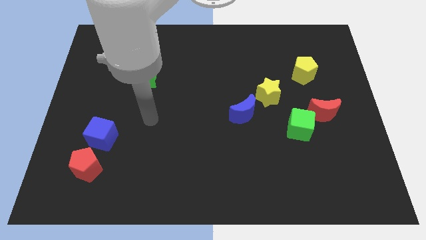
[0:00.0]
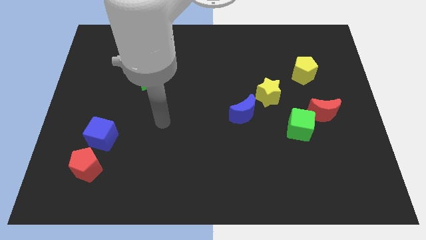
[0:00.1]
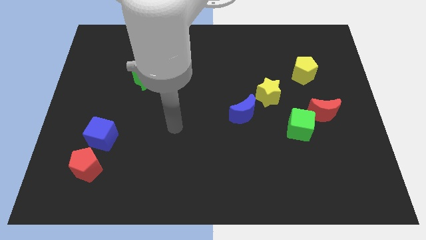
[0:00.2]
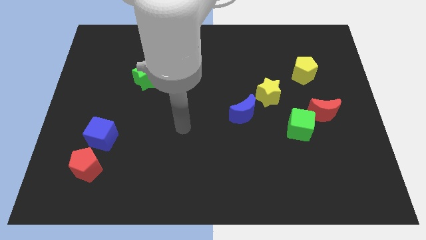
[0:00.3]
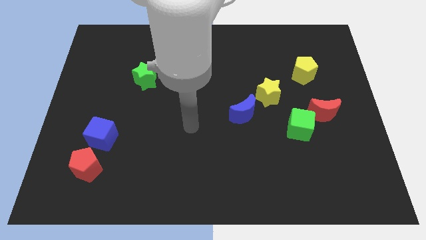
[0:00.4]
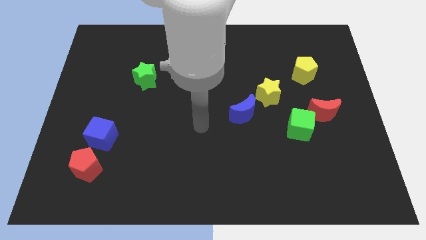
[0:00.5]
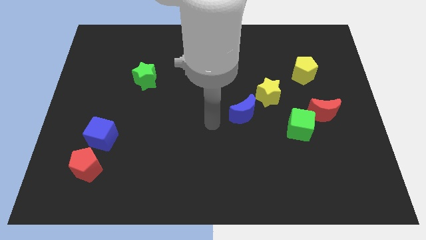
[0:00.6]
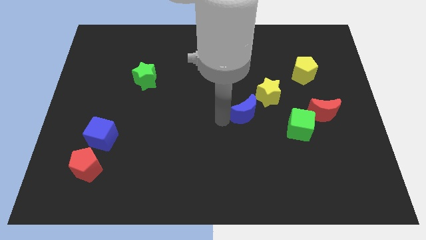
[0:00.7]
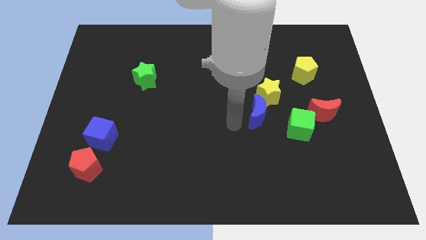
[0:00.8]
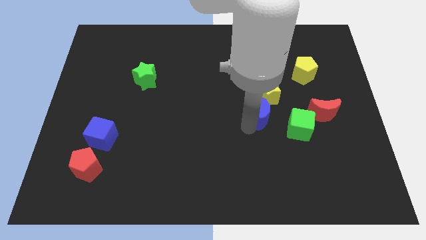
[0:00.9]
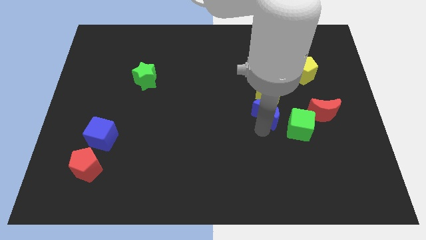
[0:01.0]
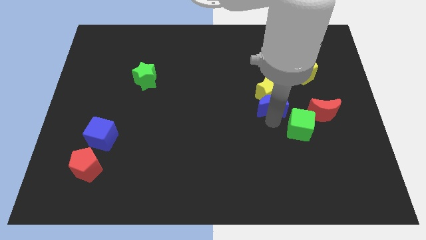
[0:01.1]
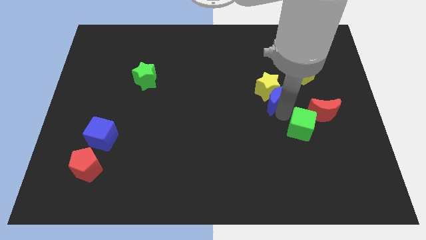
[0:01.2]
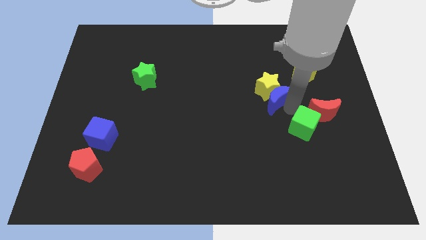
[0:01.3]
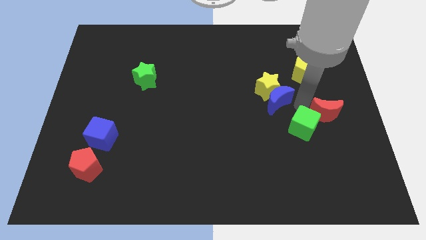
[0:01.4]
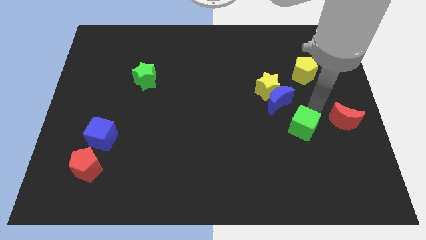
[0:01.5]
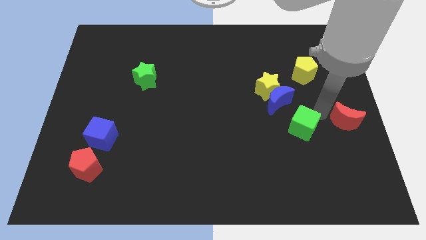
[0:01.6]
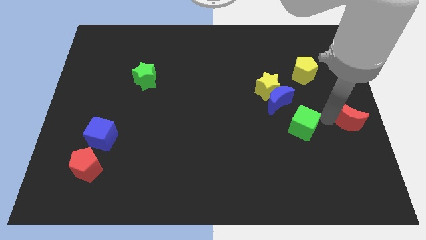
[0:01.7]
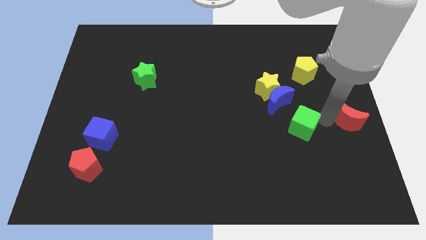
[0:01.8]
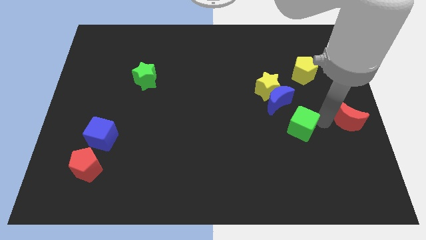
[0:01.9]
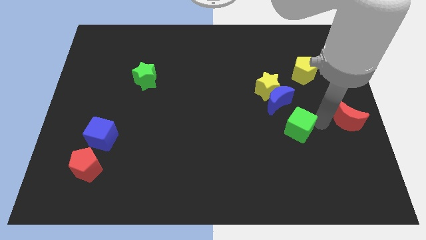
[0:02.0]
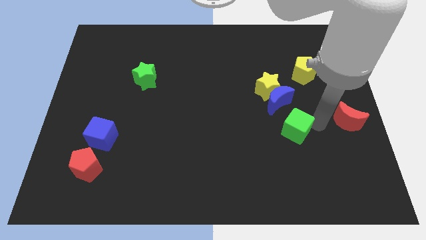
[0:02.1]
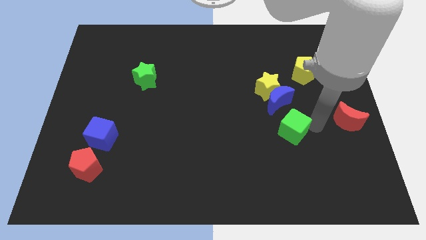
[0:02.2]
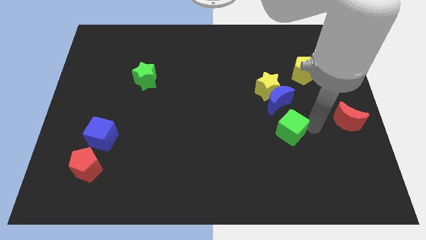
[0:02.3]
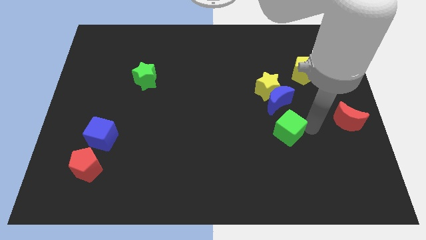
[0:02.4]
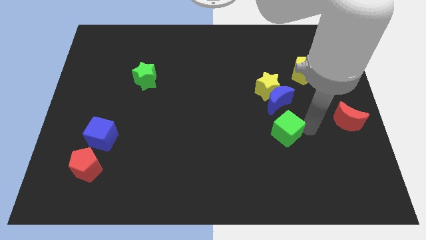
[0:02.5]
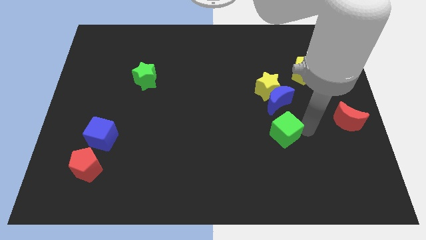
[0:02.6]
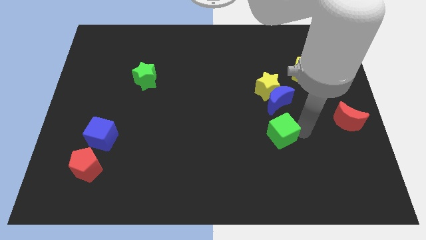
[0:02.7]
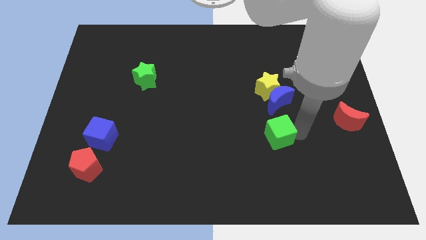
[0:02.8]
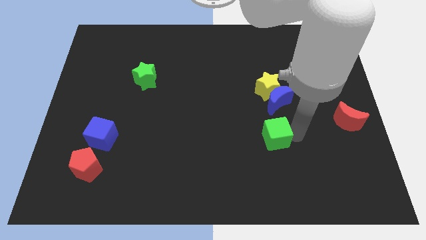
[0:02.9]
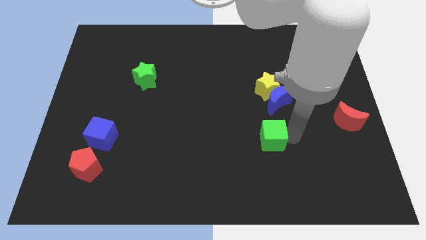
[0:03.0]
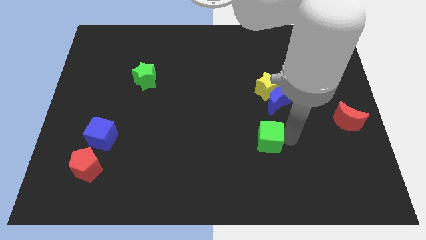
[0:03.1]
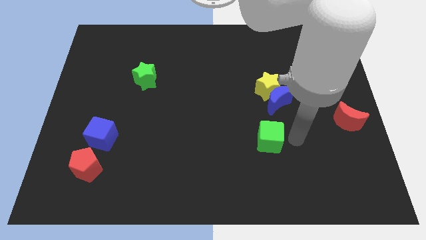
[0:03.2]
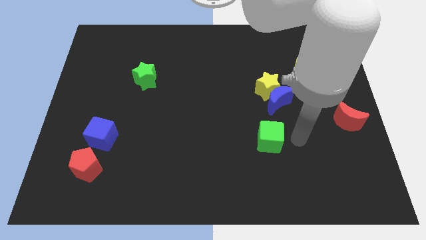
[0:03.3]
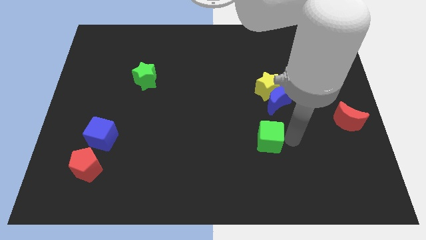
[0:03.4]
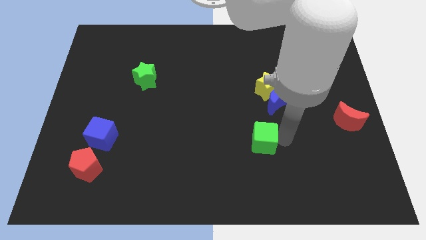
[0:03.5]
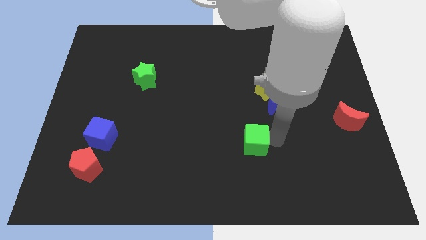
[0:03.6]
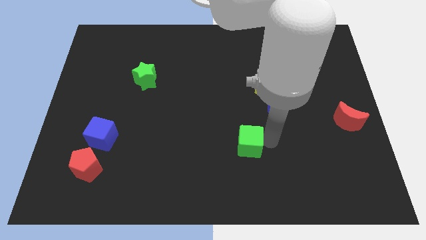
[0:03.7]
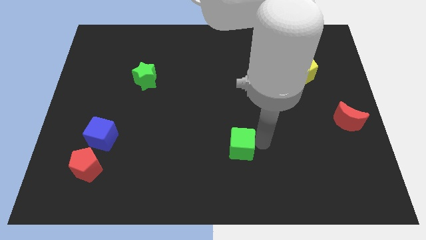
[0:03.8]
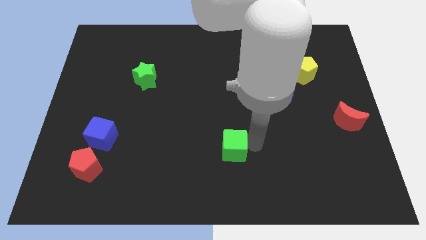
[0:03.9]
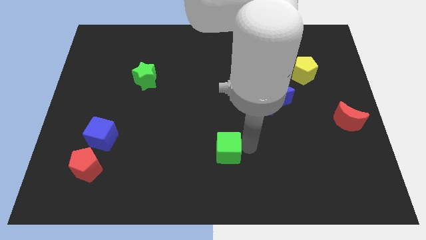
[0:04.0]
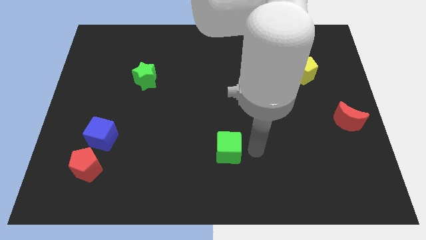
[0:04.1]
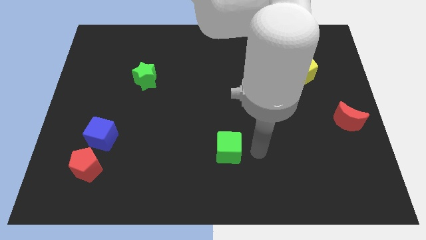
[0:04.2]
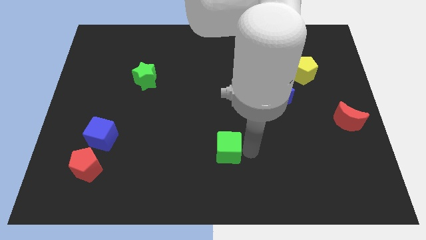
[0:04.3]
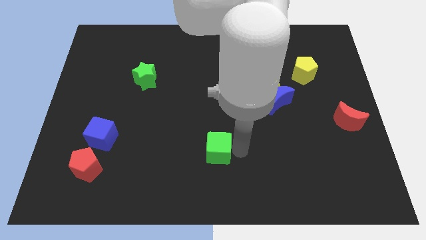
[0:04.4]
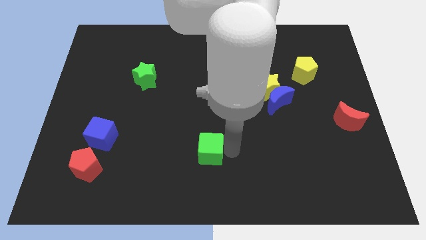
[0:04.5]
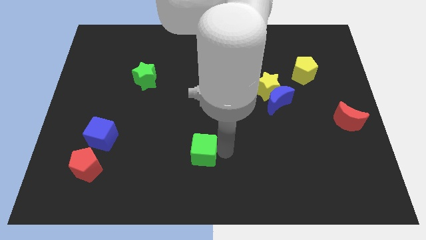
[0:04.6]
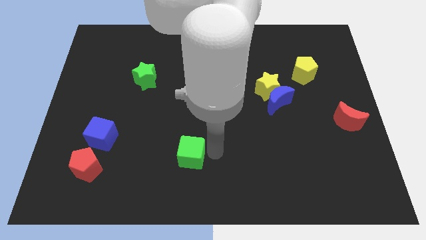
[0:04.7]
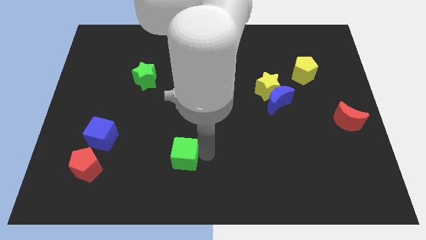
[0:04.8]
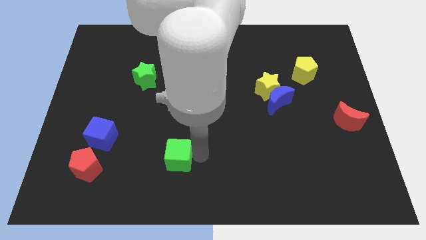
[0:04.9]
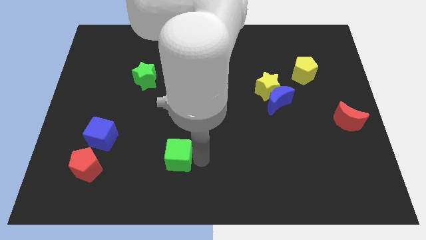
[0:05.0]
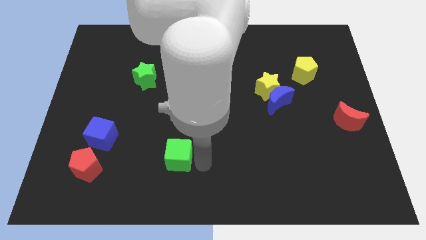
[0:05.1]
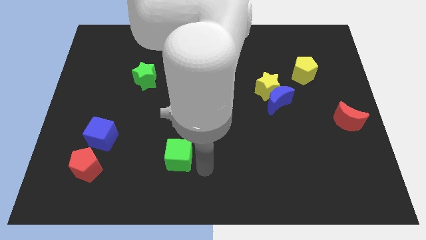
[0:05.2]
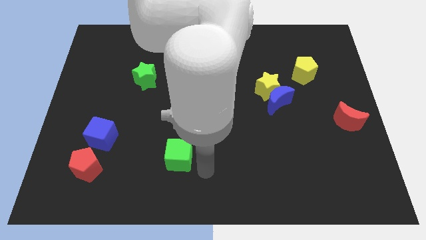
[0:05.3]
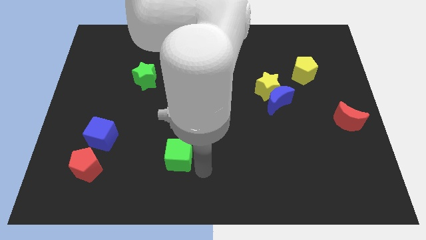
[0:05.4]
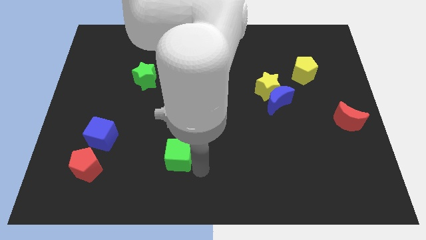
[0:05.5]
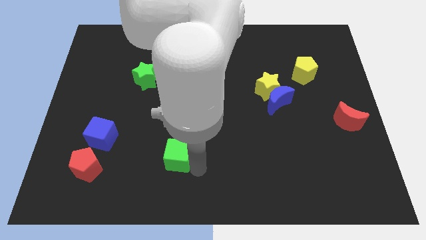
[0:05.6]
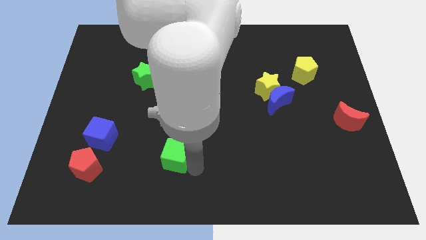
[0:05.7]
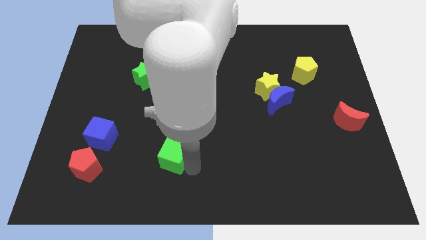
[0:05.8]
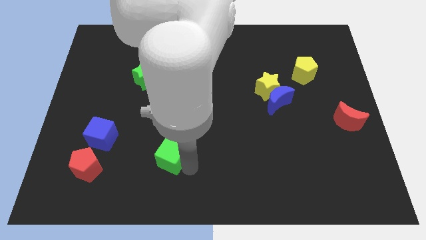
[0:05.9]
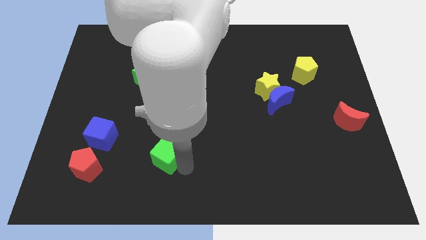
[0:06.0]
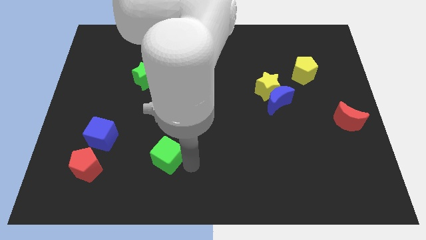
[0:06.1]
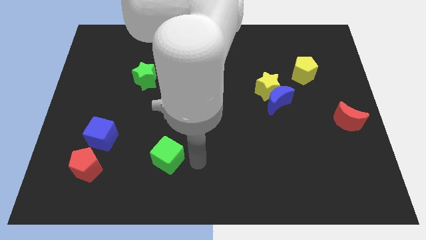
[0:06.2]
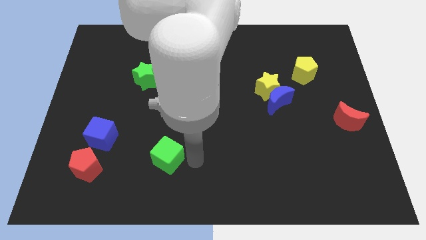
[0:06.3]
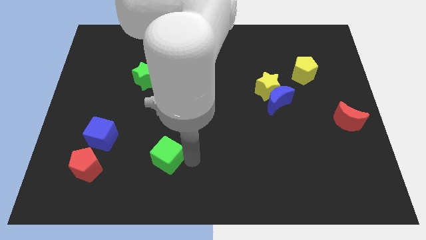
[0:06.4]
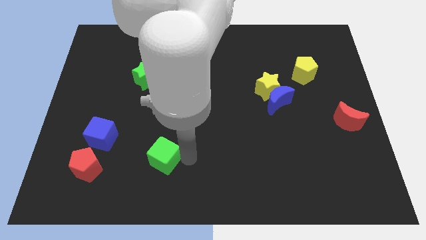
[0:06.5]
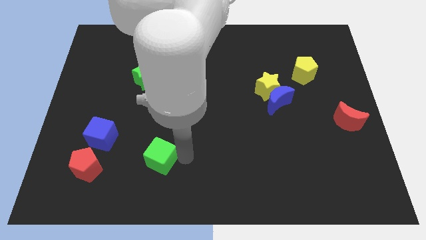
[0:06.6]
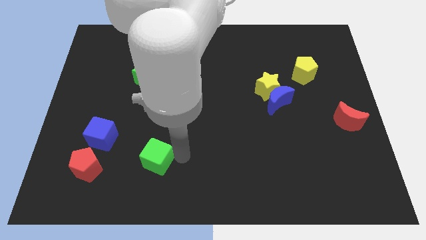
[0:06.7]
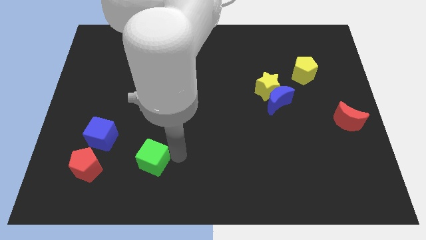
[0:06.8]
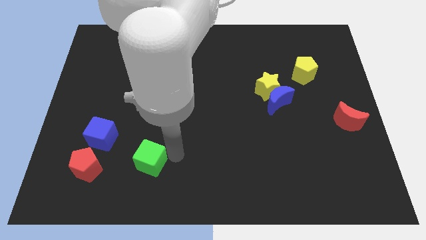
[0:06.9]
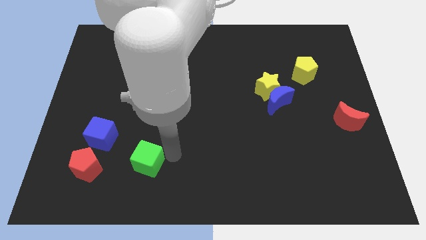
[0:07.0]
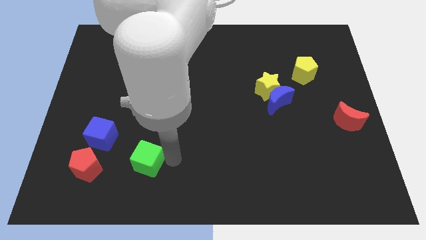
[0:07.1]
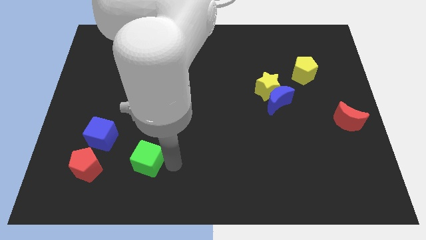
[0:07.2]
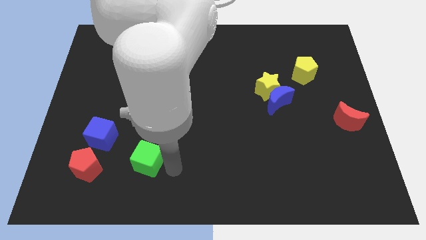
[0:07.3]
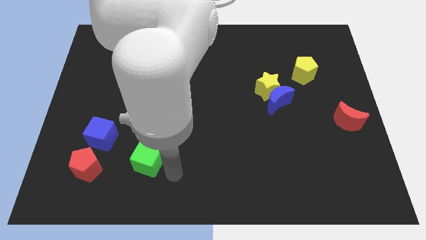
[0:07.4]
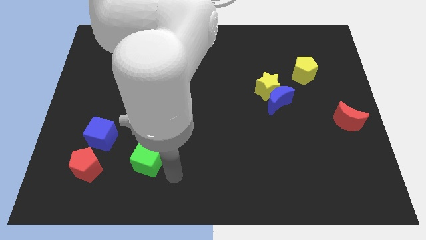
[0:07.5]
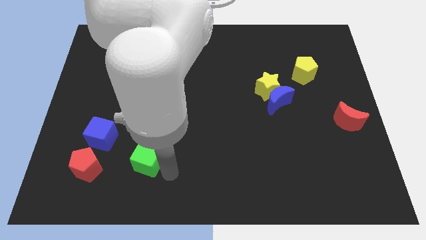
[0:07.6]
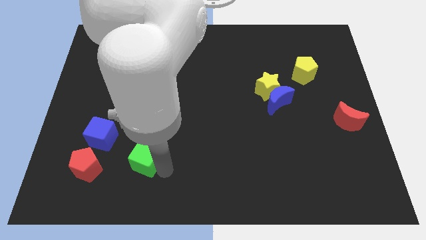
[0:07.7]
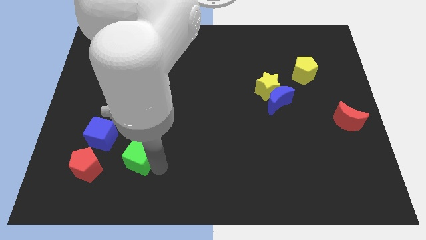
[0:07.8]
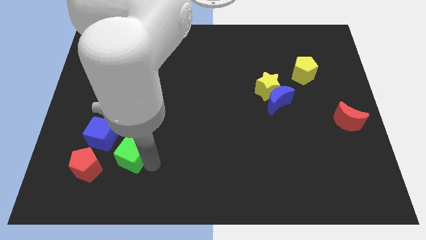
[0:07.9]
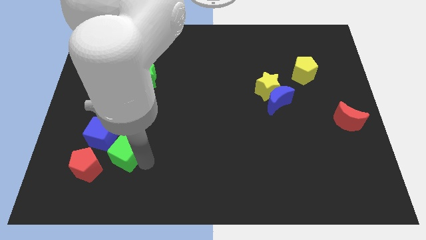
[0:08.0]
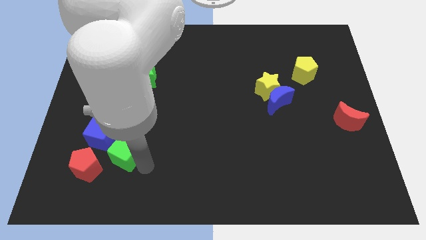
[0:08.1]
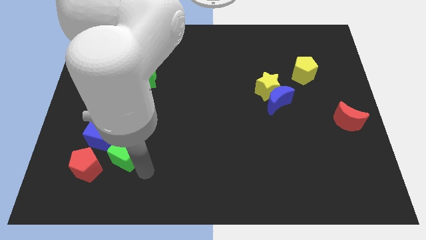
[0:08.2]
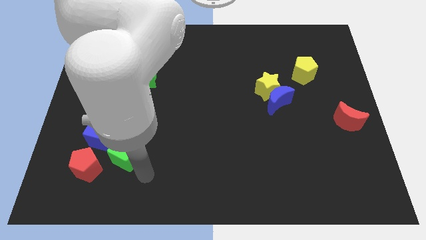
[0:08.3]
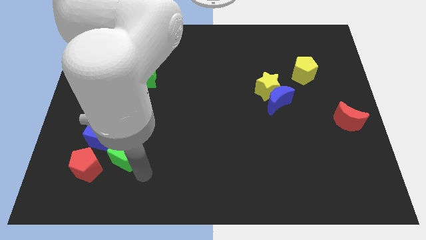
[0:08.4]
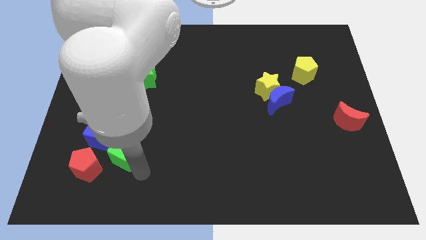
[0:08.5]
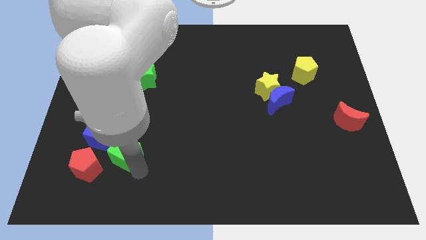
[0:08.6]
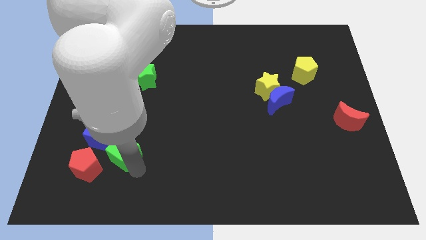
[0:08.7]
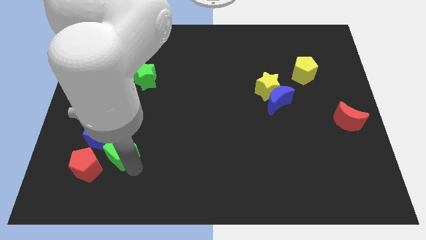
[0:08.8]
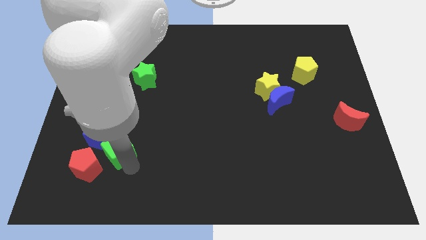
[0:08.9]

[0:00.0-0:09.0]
move the green cube to the blue cube

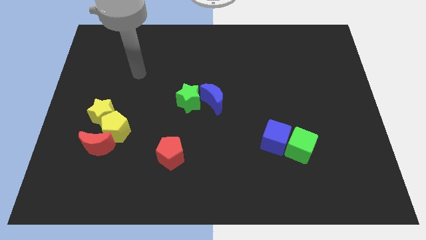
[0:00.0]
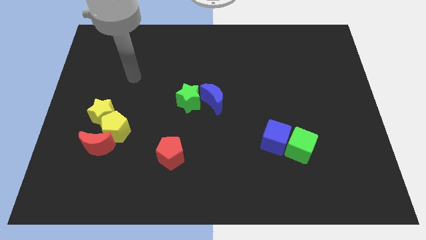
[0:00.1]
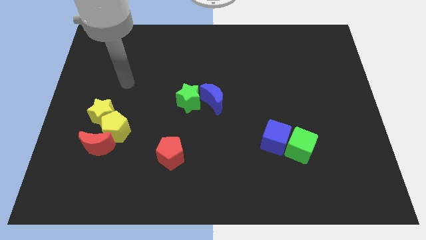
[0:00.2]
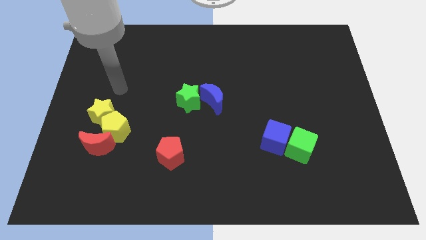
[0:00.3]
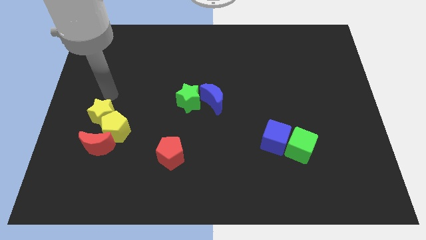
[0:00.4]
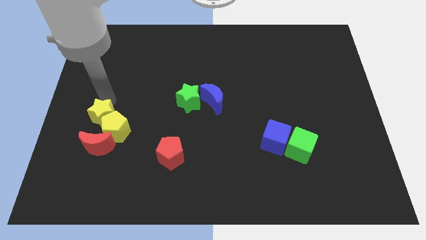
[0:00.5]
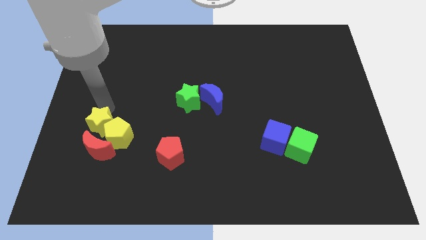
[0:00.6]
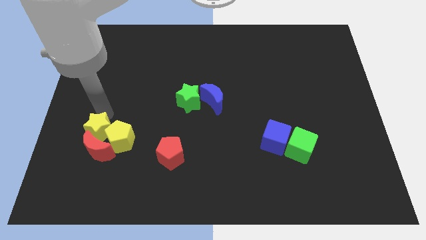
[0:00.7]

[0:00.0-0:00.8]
put the yellow star towards the red moon
